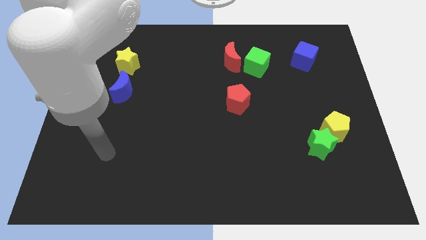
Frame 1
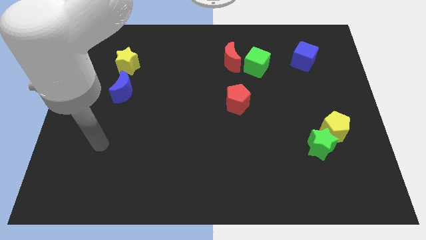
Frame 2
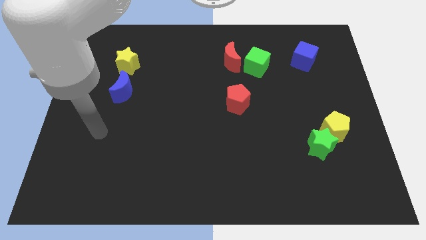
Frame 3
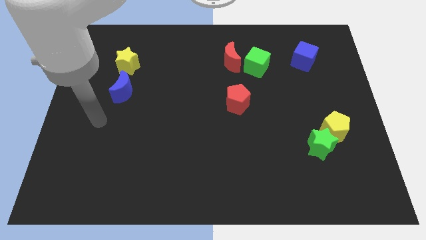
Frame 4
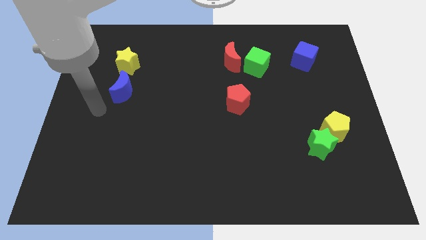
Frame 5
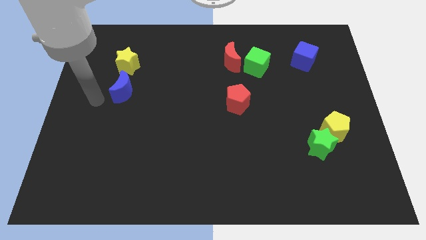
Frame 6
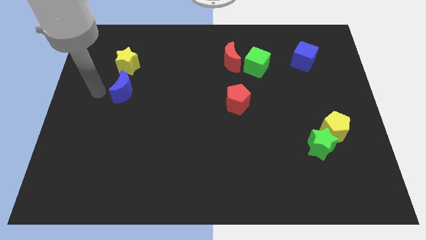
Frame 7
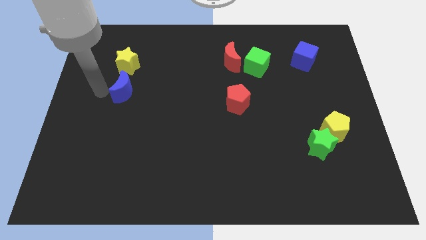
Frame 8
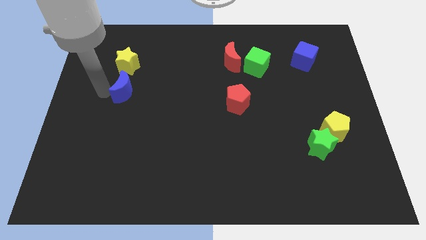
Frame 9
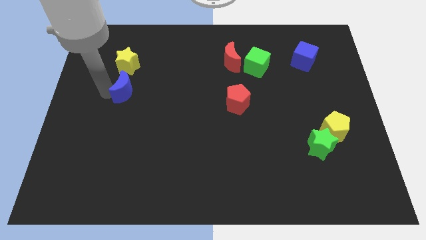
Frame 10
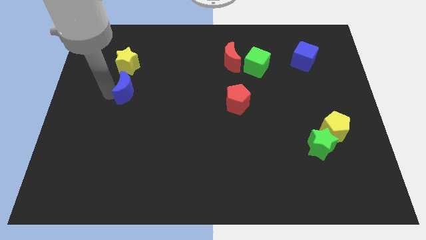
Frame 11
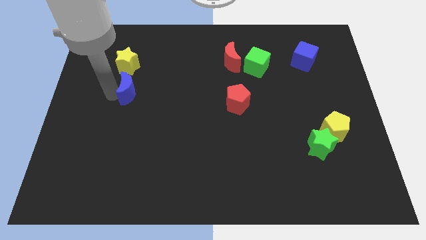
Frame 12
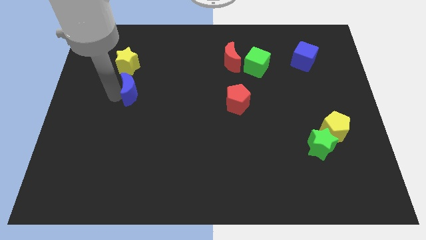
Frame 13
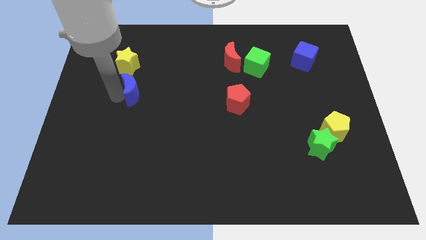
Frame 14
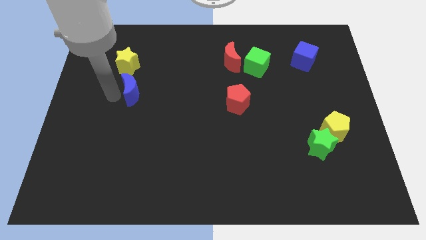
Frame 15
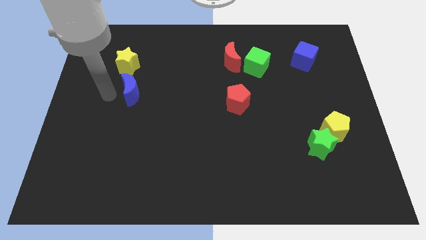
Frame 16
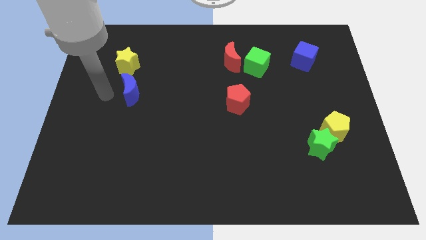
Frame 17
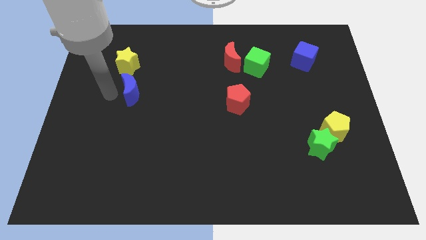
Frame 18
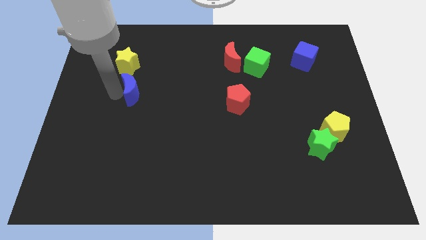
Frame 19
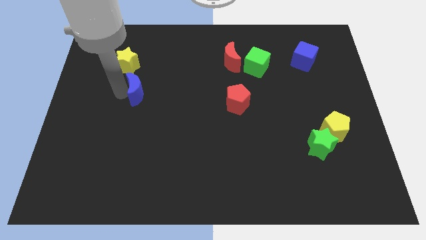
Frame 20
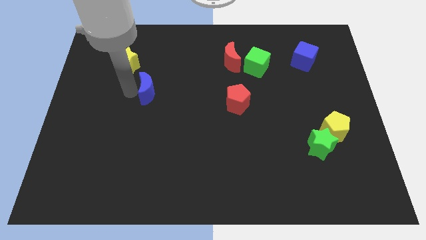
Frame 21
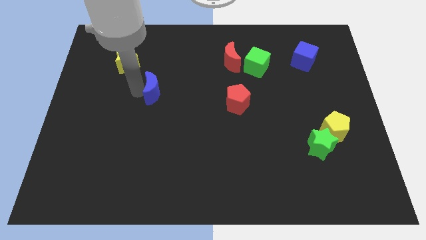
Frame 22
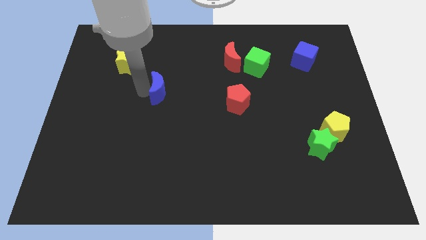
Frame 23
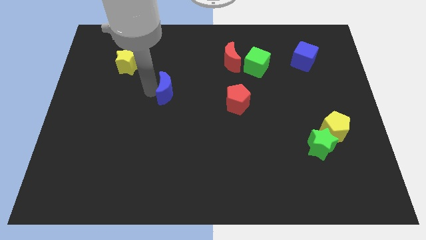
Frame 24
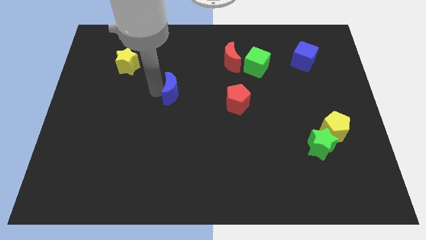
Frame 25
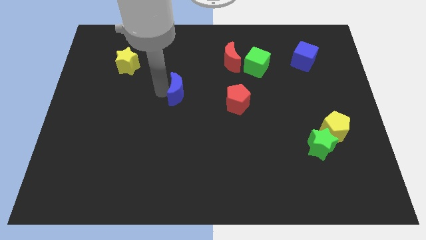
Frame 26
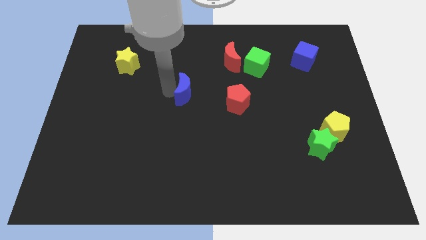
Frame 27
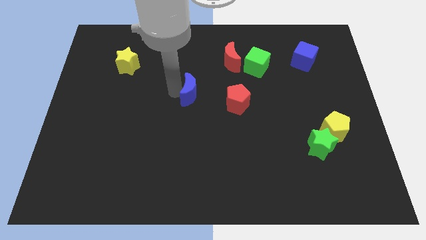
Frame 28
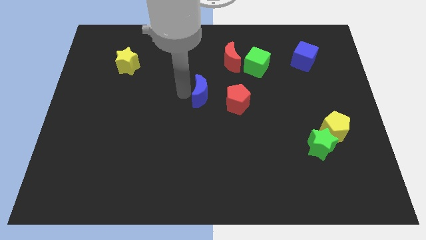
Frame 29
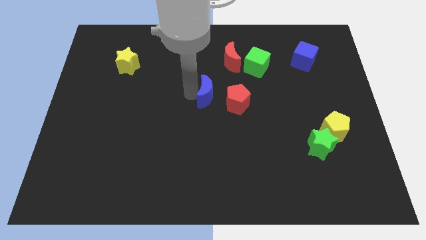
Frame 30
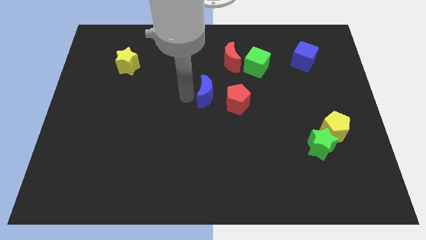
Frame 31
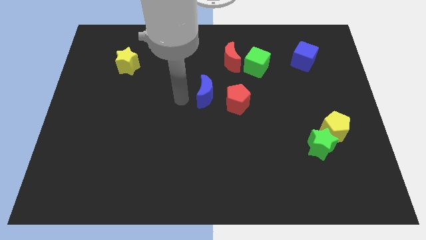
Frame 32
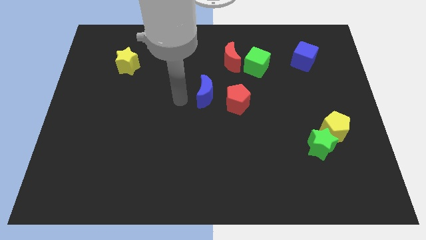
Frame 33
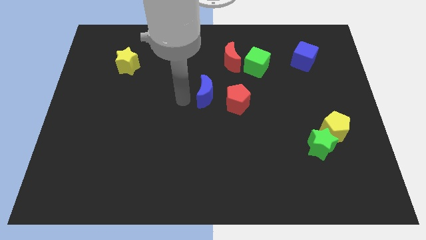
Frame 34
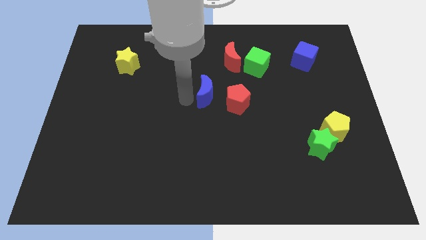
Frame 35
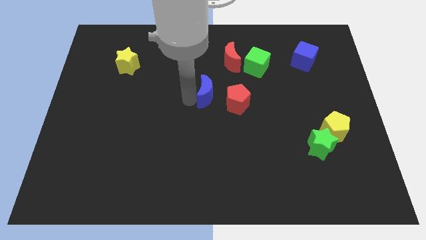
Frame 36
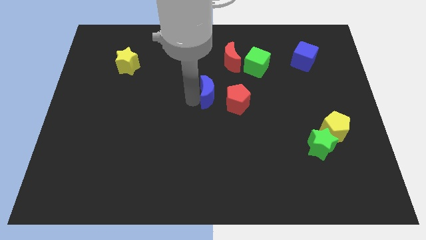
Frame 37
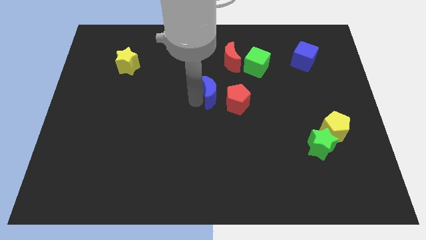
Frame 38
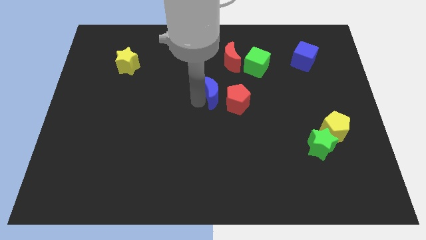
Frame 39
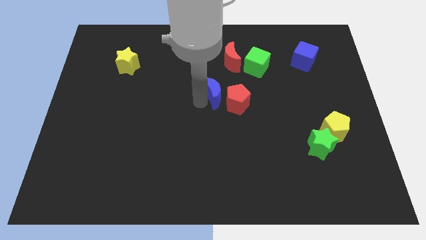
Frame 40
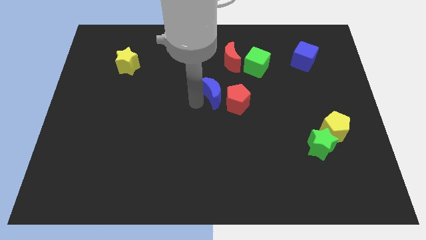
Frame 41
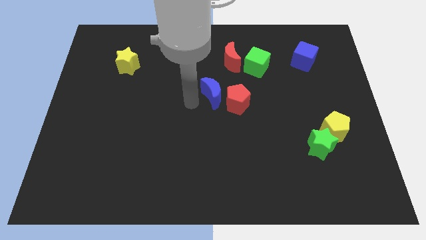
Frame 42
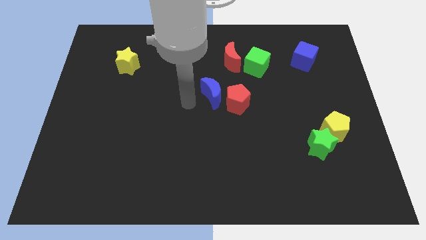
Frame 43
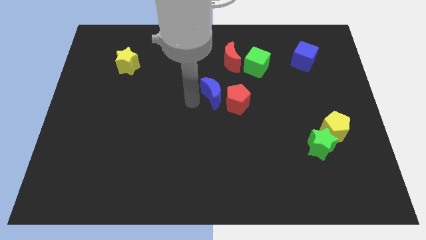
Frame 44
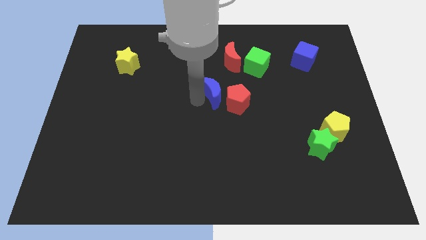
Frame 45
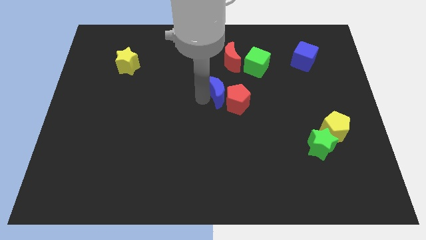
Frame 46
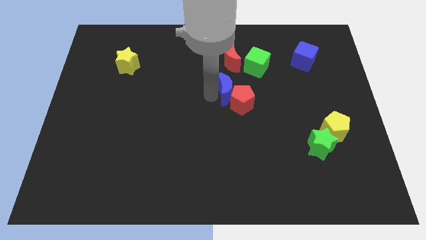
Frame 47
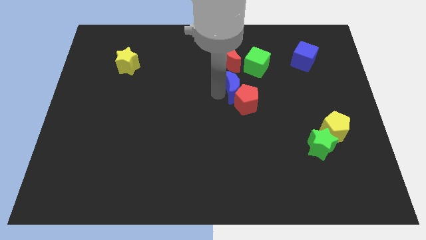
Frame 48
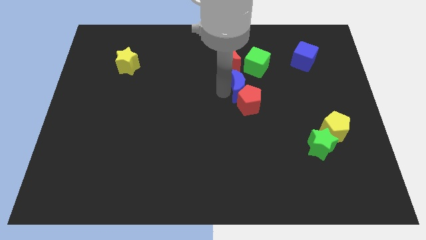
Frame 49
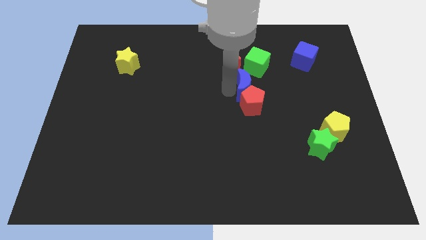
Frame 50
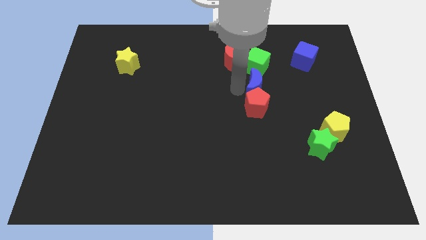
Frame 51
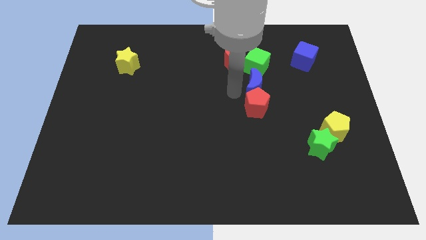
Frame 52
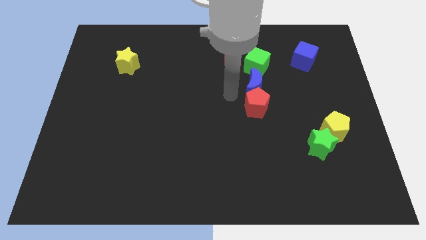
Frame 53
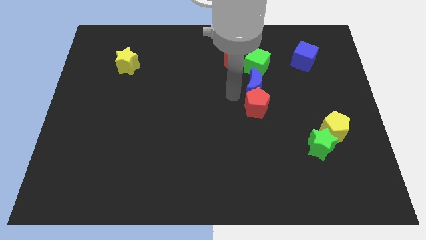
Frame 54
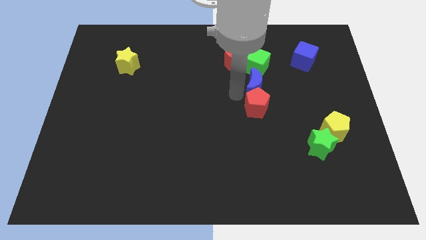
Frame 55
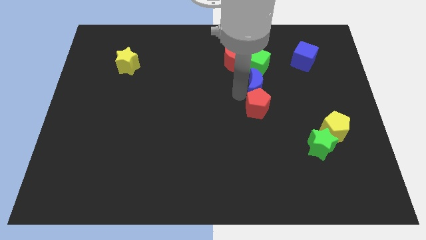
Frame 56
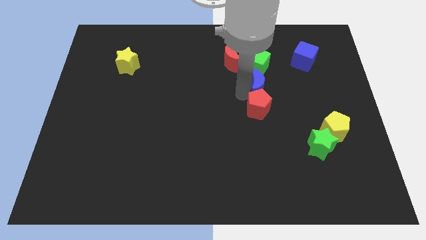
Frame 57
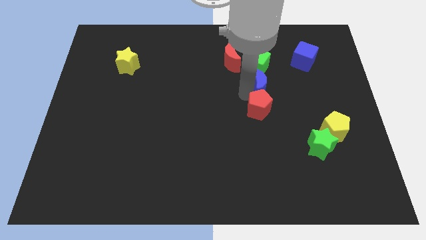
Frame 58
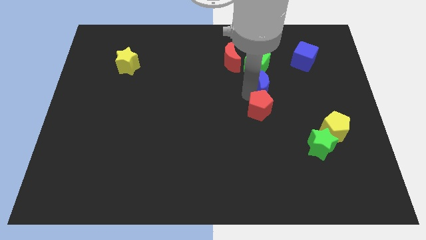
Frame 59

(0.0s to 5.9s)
put the blue moon to the bottom right side of the green cube

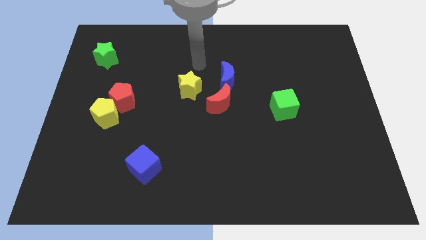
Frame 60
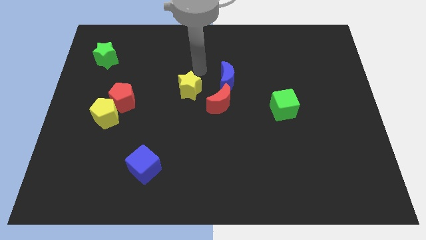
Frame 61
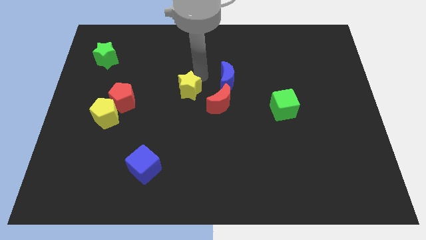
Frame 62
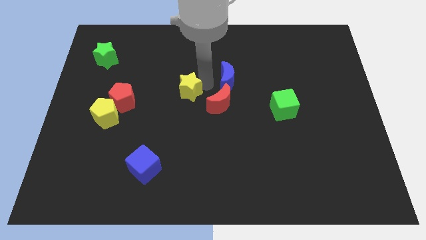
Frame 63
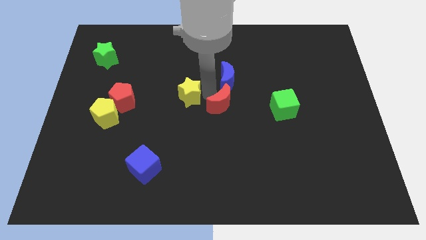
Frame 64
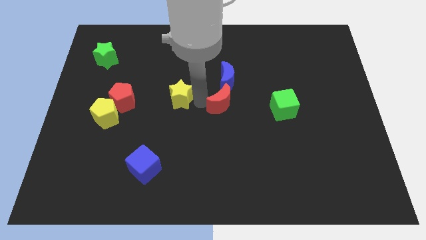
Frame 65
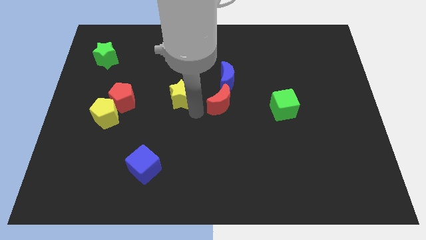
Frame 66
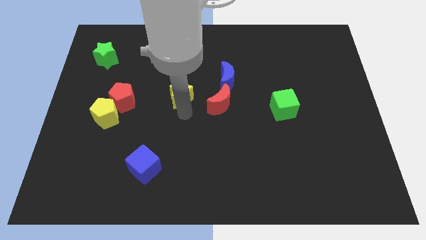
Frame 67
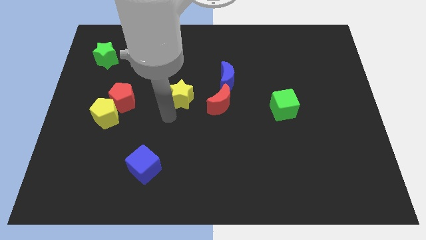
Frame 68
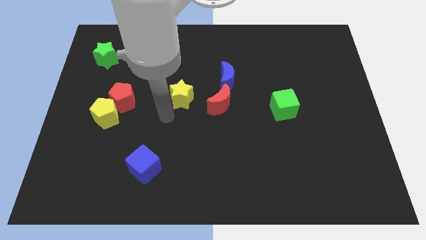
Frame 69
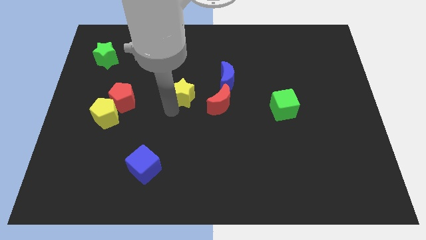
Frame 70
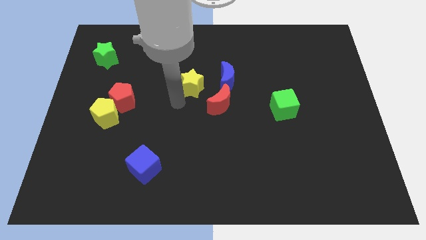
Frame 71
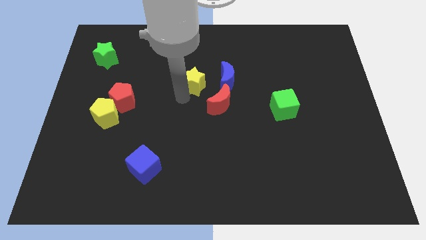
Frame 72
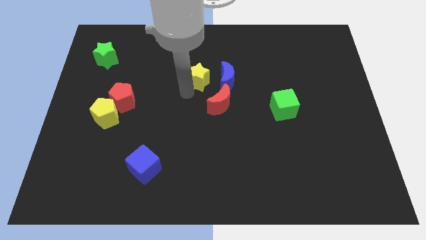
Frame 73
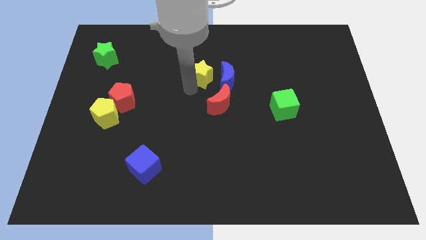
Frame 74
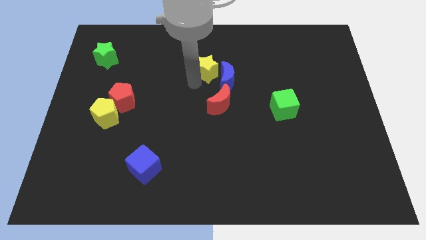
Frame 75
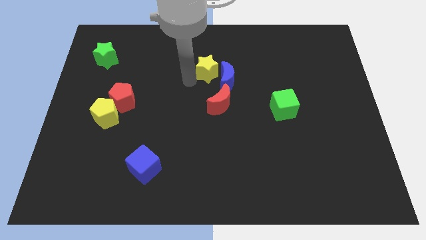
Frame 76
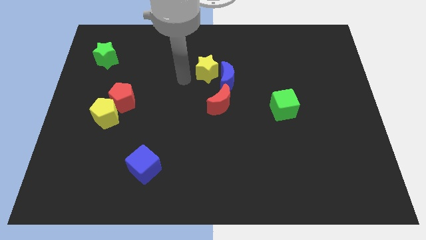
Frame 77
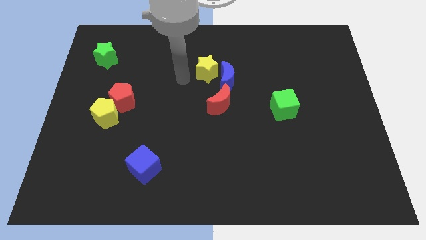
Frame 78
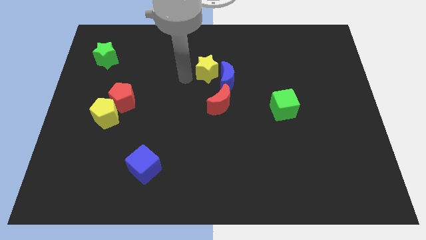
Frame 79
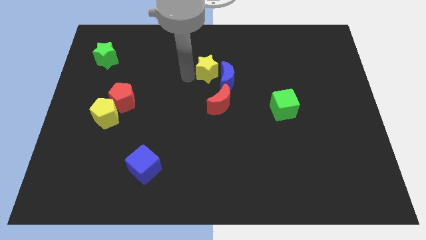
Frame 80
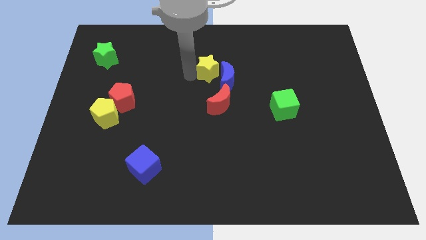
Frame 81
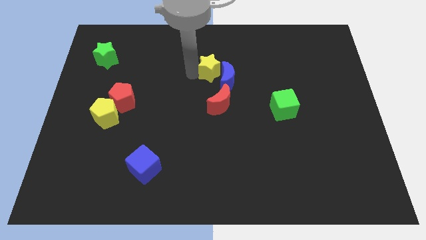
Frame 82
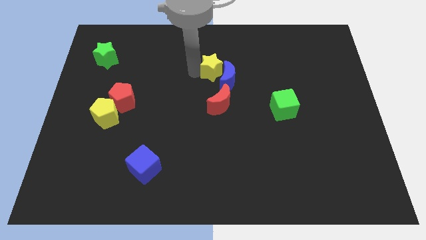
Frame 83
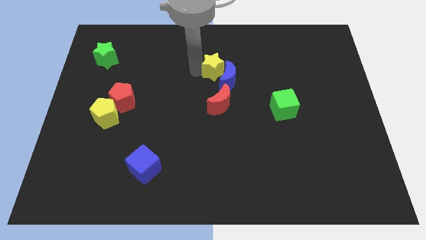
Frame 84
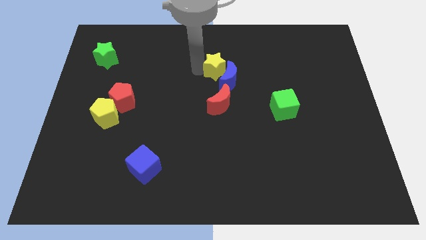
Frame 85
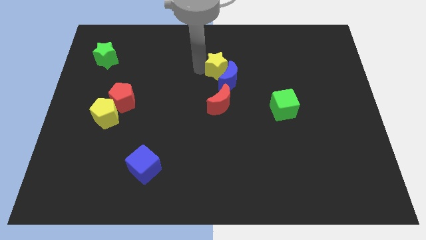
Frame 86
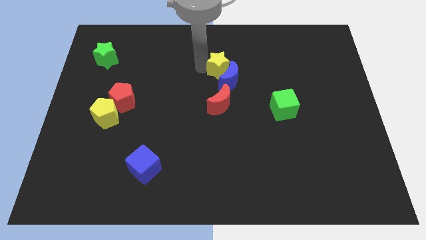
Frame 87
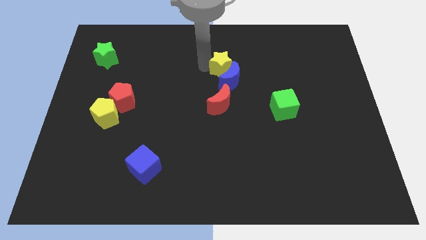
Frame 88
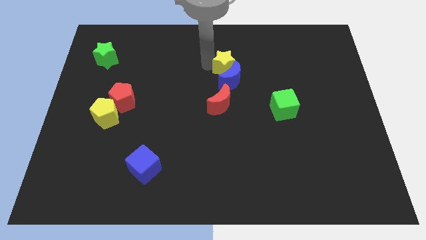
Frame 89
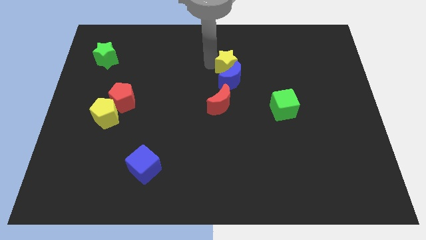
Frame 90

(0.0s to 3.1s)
move the yellow star diagonally up and to the right of the blue moon
